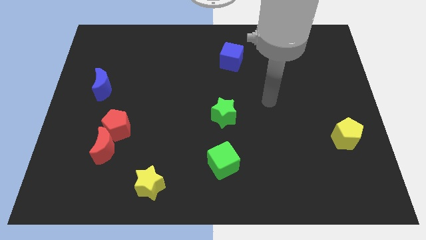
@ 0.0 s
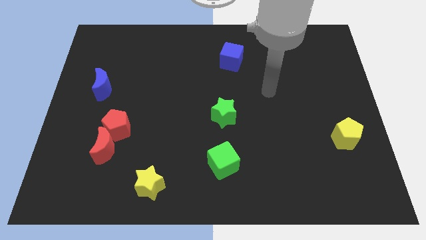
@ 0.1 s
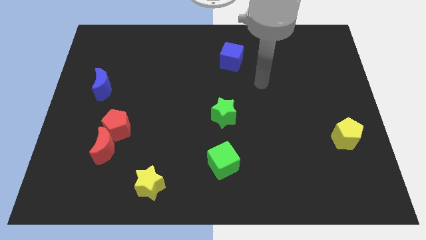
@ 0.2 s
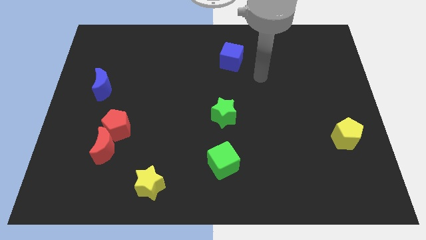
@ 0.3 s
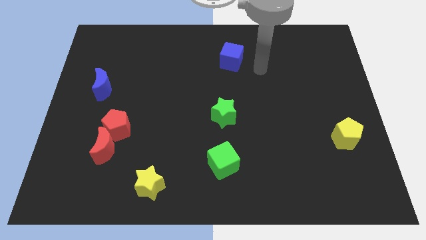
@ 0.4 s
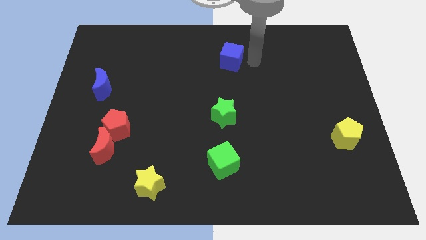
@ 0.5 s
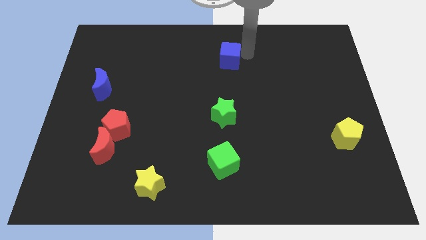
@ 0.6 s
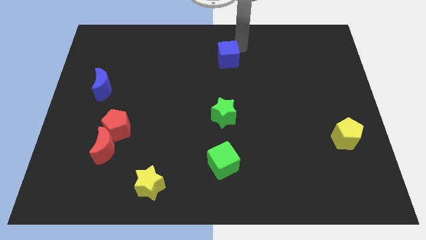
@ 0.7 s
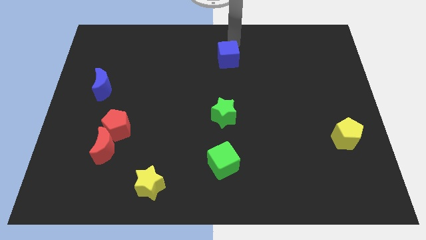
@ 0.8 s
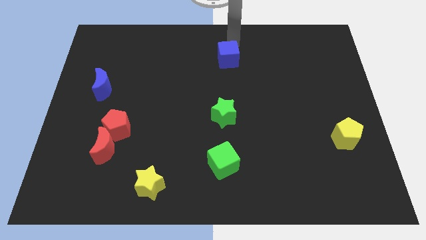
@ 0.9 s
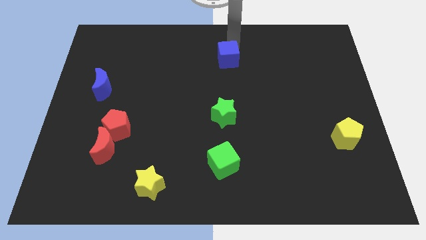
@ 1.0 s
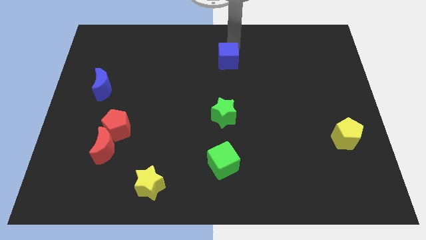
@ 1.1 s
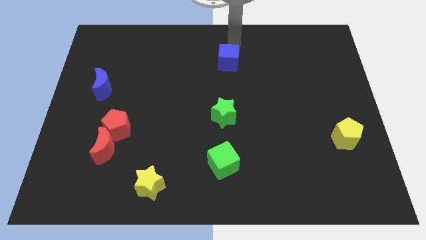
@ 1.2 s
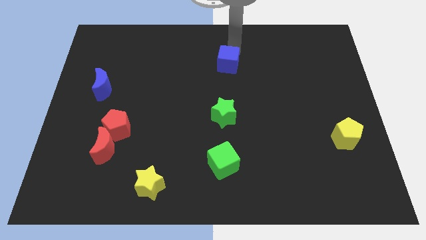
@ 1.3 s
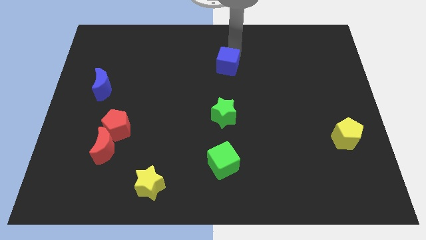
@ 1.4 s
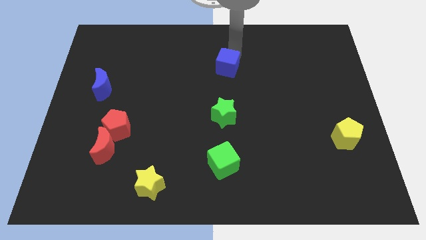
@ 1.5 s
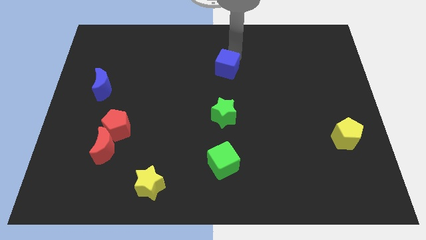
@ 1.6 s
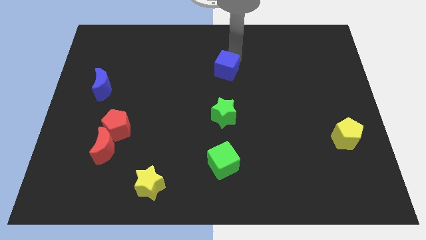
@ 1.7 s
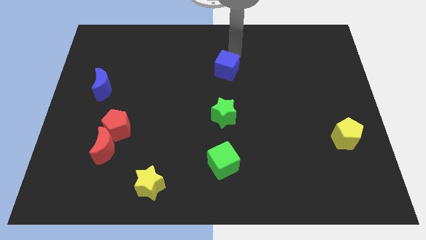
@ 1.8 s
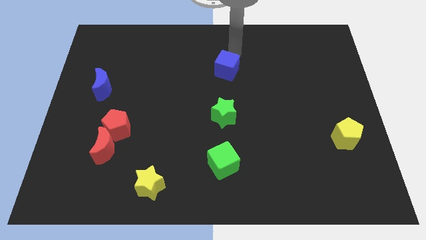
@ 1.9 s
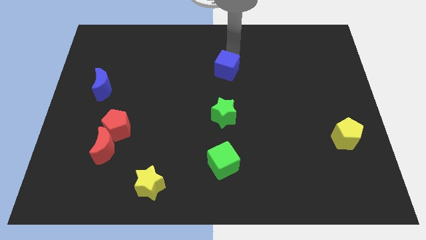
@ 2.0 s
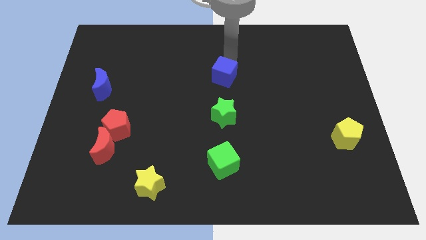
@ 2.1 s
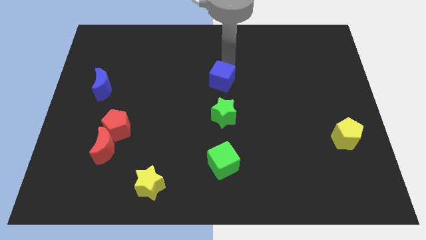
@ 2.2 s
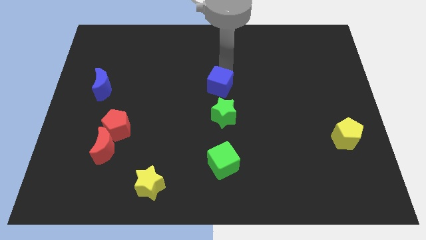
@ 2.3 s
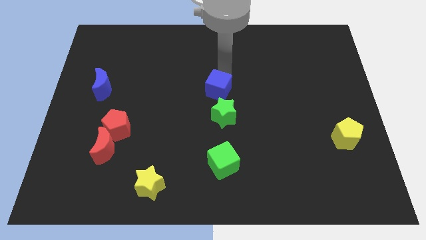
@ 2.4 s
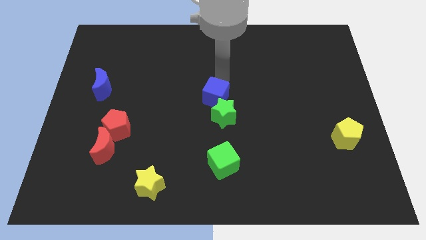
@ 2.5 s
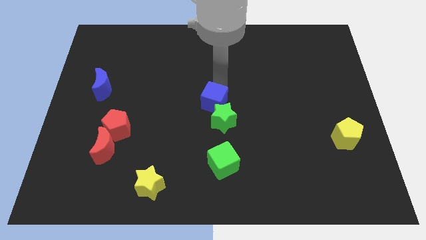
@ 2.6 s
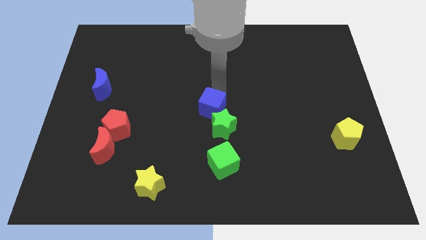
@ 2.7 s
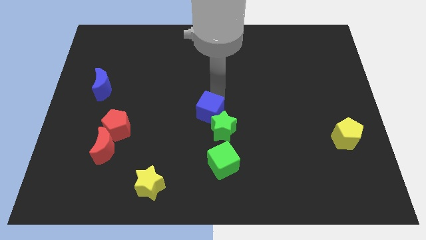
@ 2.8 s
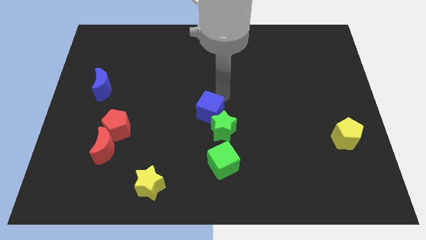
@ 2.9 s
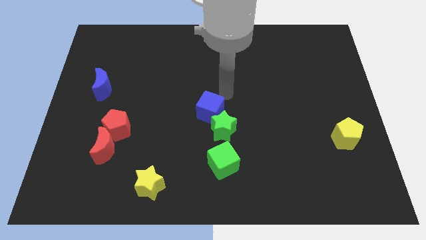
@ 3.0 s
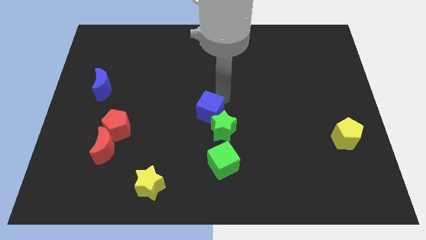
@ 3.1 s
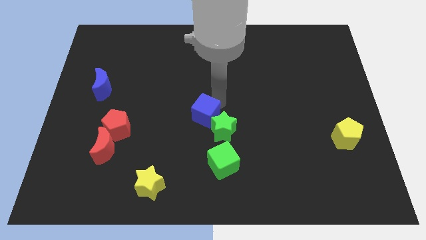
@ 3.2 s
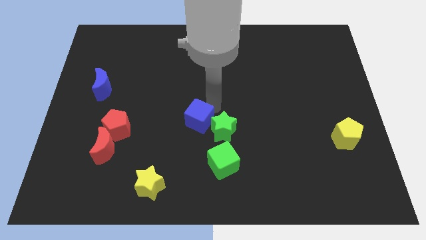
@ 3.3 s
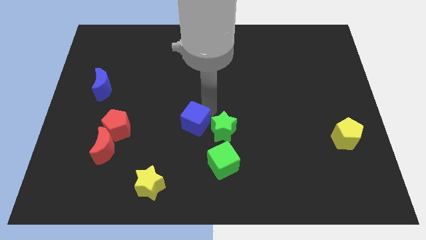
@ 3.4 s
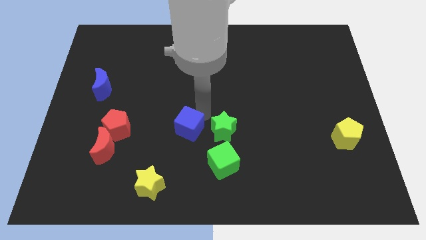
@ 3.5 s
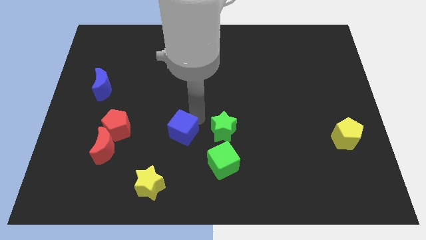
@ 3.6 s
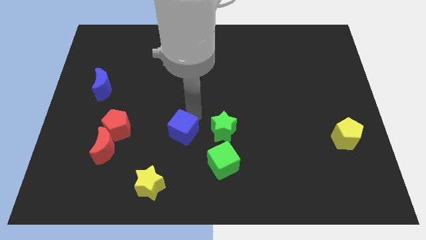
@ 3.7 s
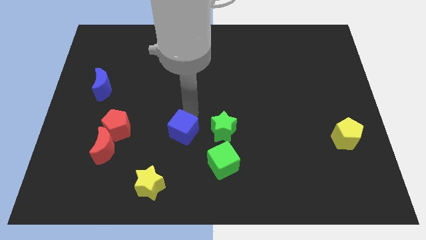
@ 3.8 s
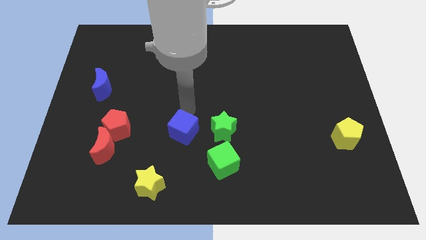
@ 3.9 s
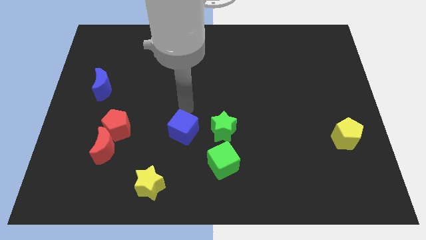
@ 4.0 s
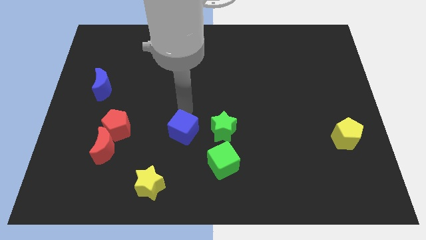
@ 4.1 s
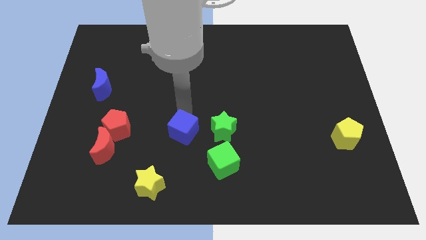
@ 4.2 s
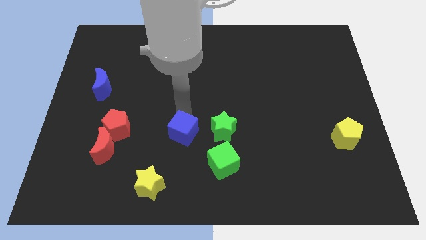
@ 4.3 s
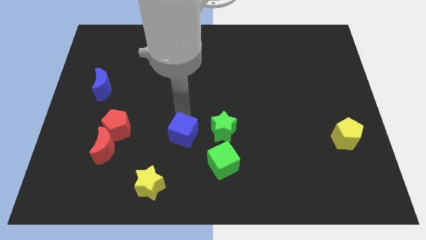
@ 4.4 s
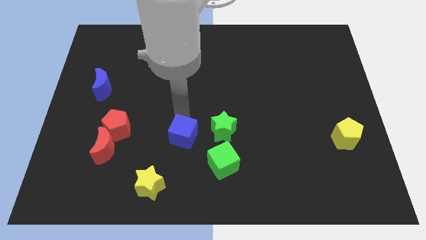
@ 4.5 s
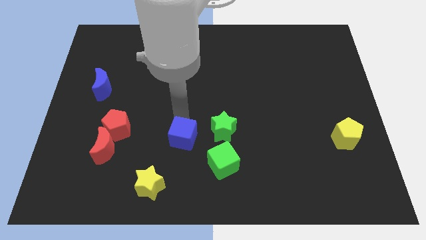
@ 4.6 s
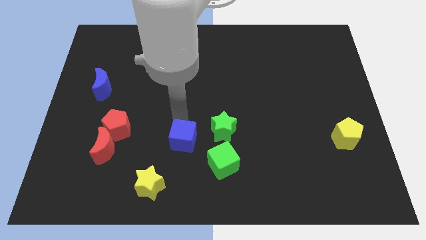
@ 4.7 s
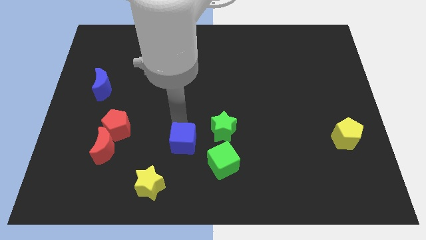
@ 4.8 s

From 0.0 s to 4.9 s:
push the blue cube diagonally up and to the right of the yellow star

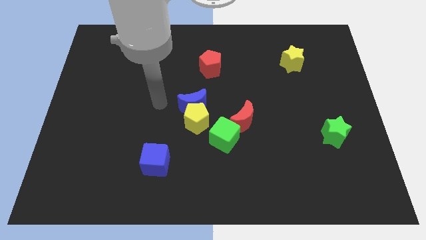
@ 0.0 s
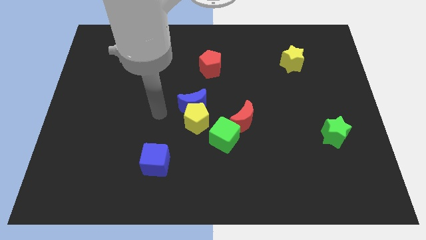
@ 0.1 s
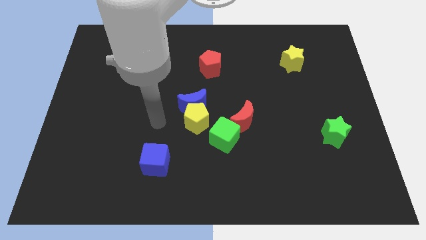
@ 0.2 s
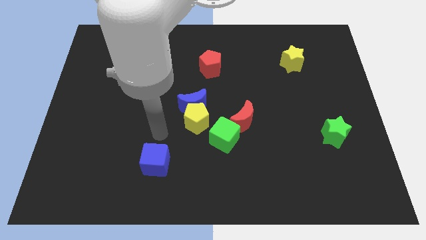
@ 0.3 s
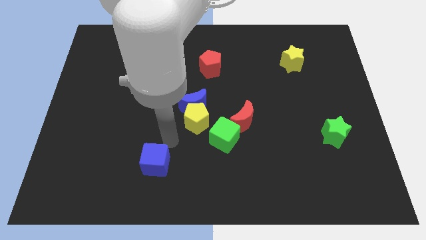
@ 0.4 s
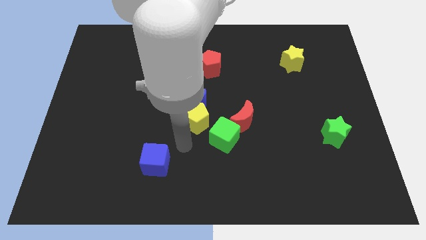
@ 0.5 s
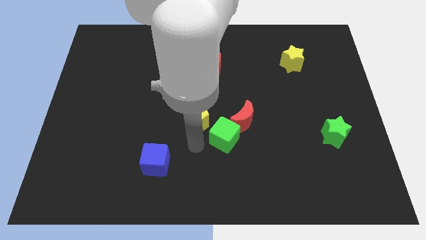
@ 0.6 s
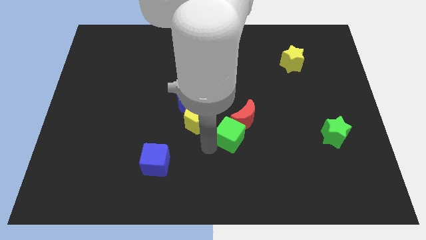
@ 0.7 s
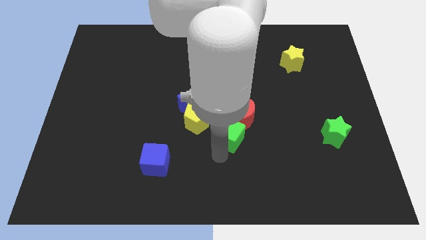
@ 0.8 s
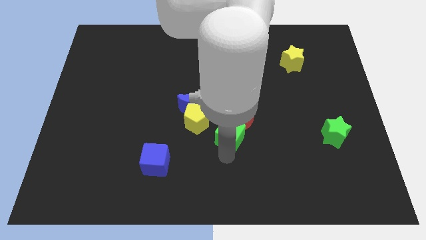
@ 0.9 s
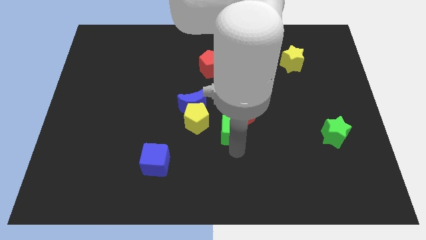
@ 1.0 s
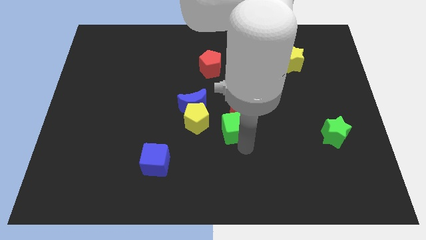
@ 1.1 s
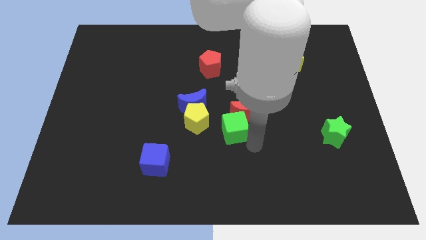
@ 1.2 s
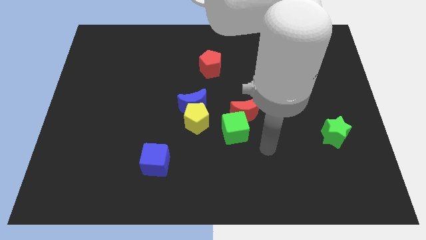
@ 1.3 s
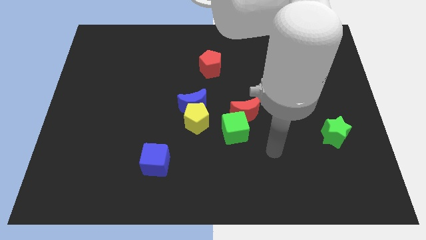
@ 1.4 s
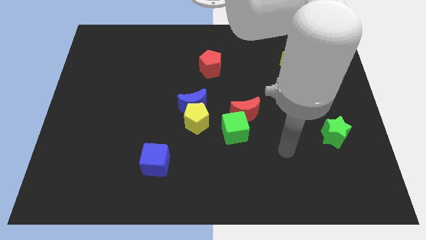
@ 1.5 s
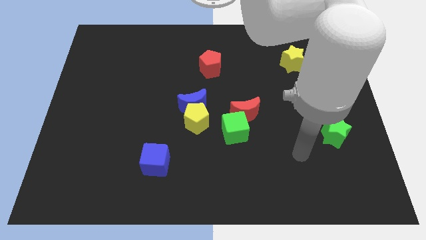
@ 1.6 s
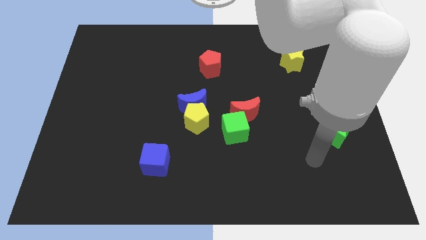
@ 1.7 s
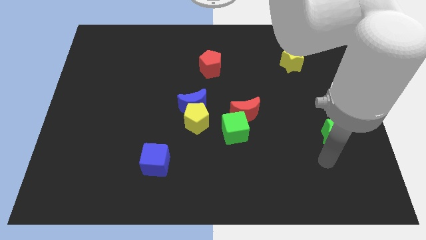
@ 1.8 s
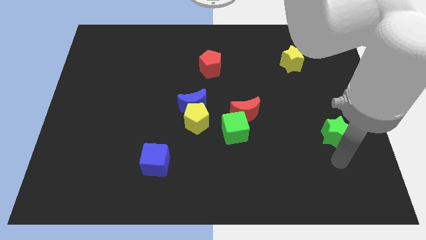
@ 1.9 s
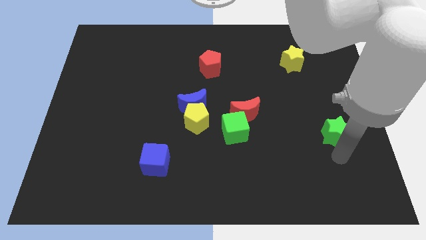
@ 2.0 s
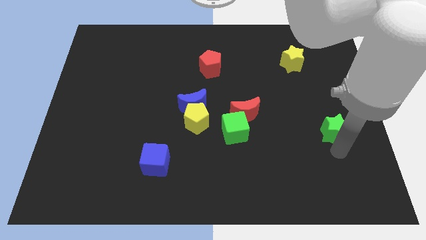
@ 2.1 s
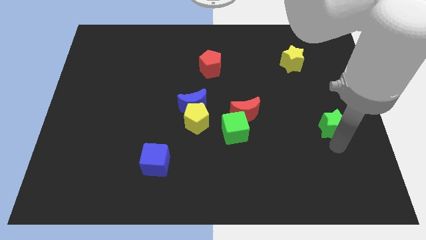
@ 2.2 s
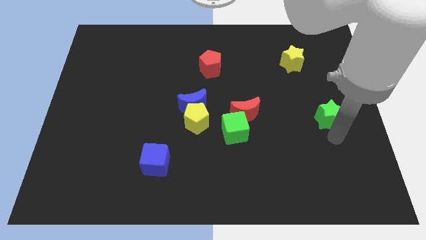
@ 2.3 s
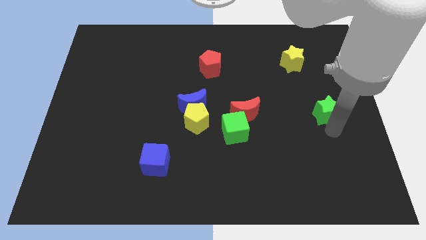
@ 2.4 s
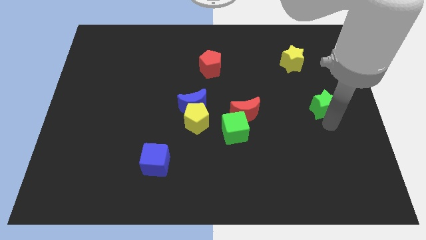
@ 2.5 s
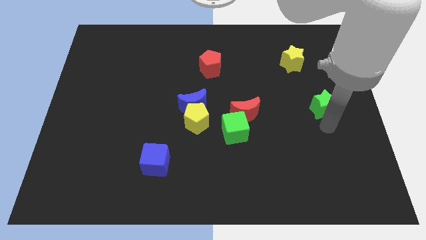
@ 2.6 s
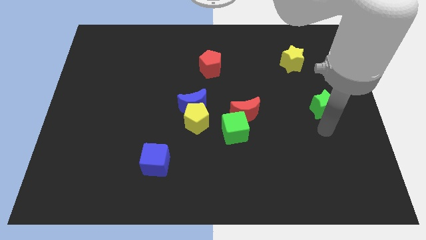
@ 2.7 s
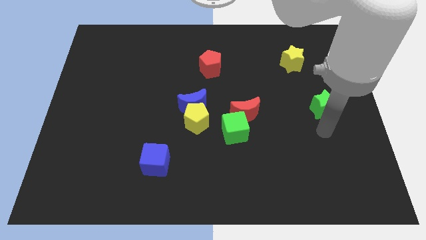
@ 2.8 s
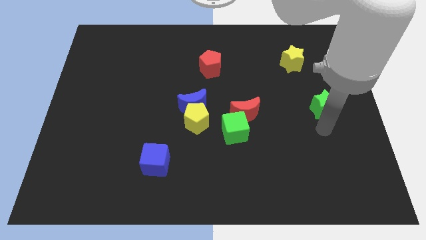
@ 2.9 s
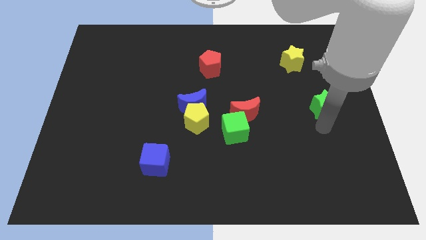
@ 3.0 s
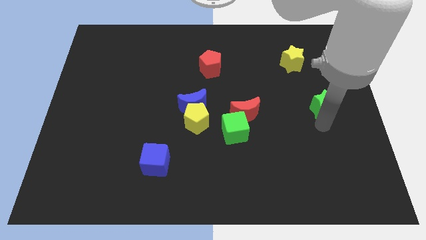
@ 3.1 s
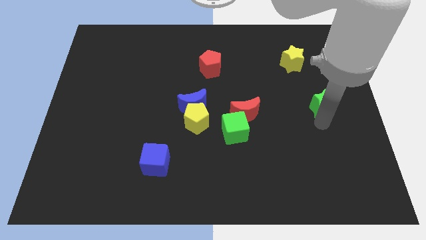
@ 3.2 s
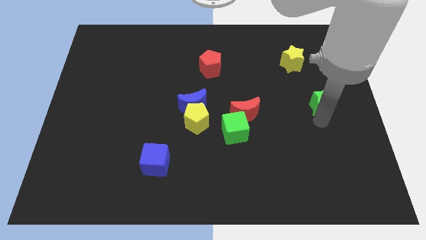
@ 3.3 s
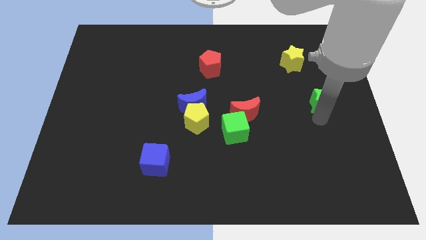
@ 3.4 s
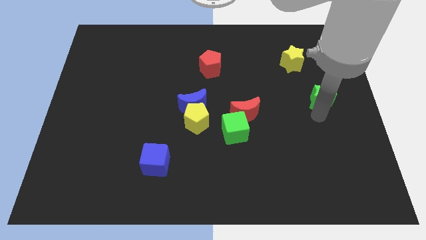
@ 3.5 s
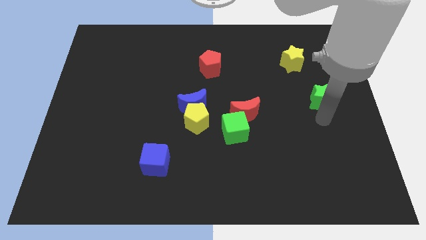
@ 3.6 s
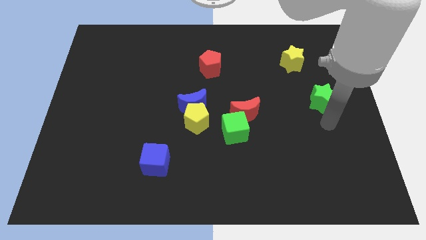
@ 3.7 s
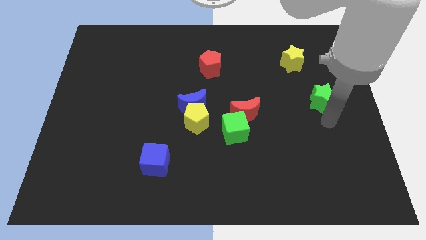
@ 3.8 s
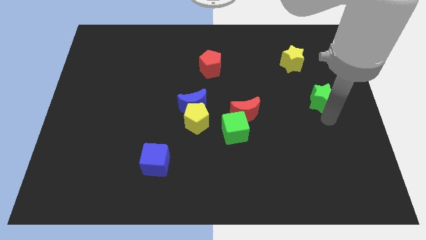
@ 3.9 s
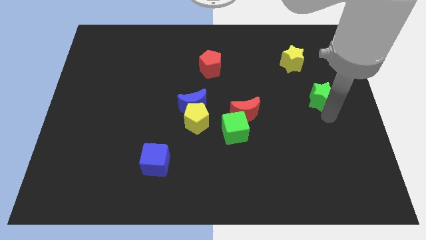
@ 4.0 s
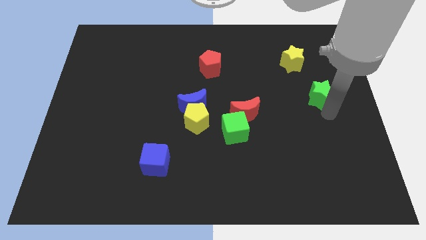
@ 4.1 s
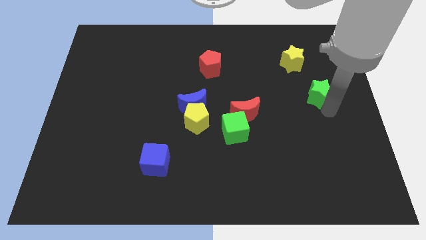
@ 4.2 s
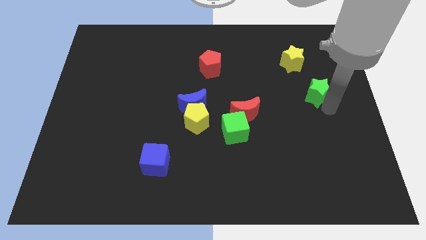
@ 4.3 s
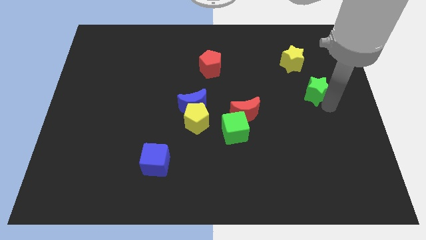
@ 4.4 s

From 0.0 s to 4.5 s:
slide the green star to the bottom right side of the yellow star
